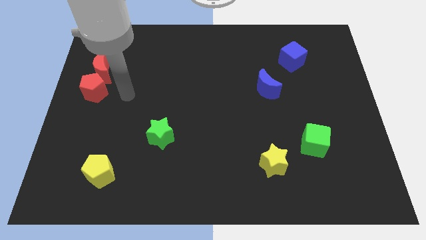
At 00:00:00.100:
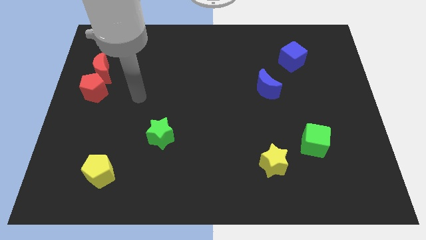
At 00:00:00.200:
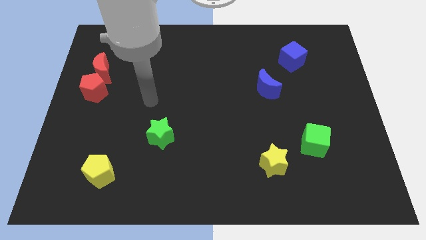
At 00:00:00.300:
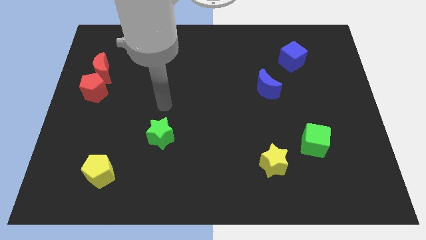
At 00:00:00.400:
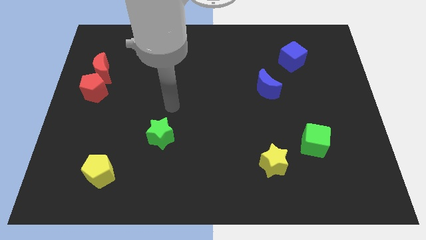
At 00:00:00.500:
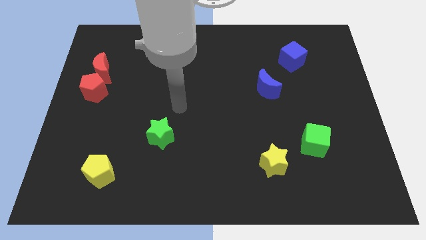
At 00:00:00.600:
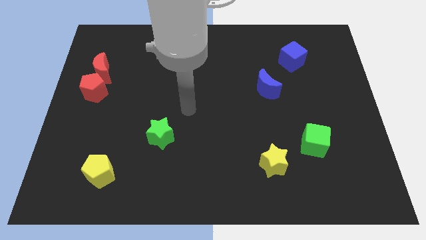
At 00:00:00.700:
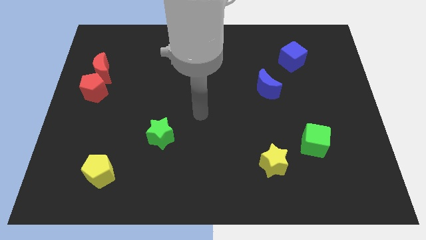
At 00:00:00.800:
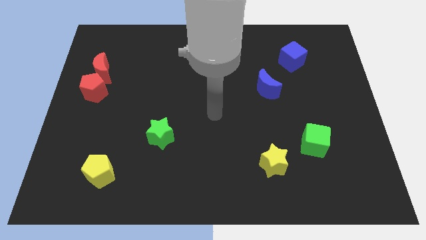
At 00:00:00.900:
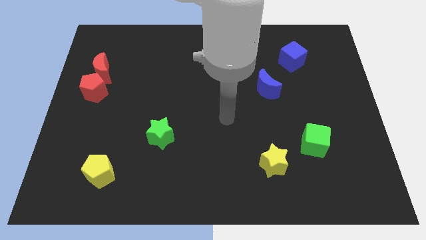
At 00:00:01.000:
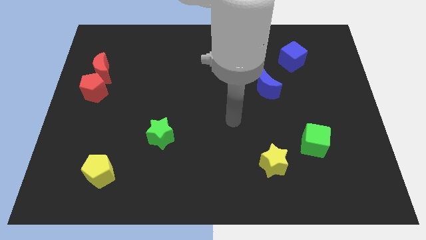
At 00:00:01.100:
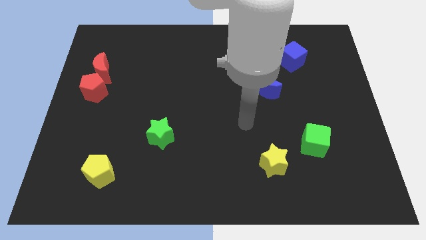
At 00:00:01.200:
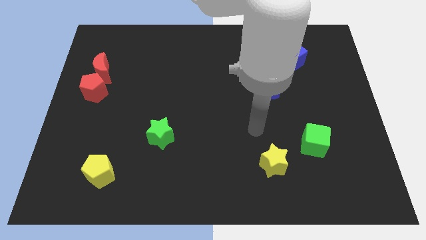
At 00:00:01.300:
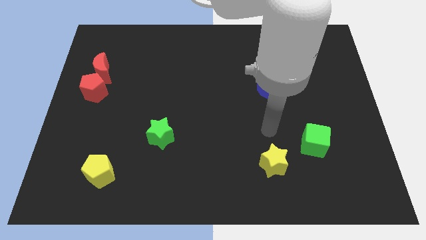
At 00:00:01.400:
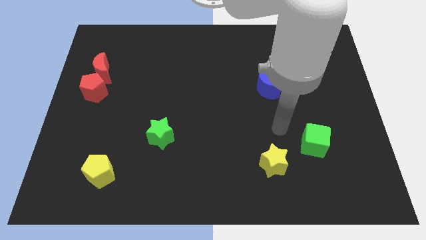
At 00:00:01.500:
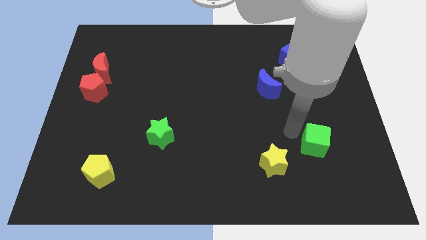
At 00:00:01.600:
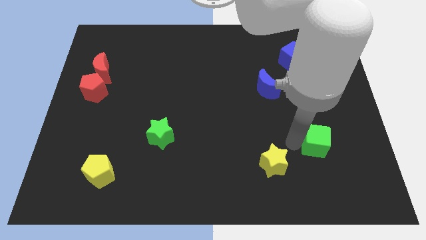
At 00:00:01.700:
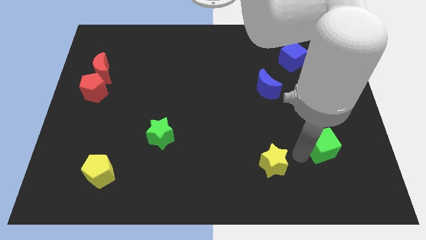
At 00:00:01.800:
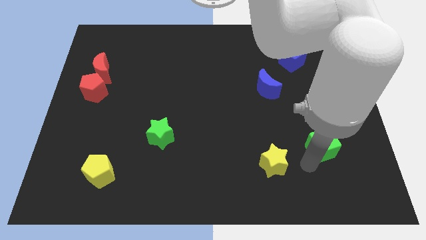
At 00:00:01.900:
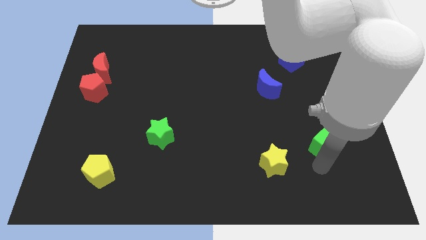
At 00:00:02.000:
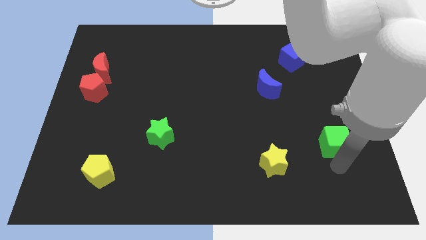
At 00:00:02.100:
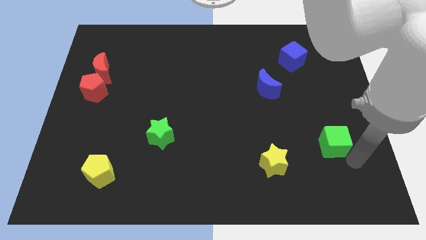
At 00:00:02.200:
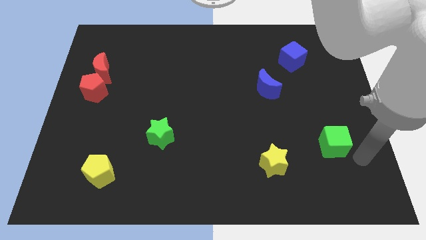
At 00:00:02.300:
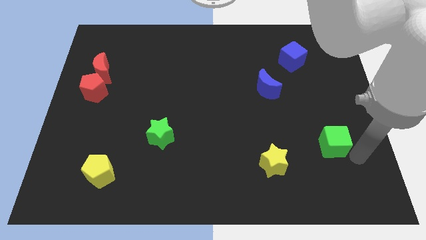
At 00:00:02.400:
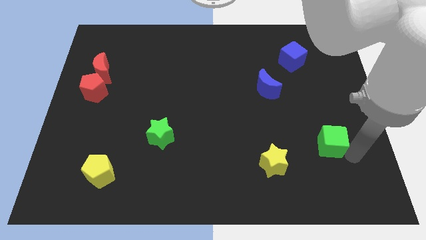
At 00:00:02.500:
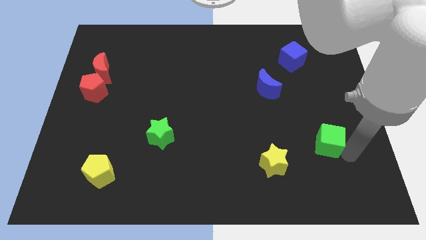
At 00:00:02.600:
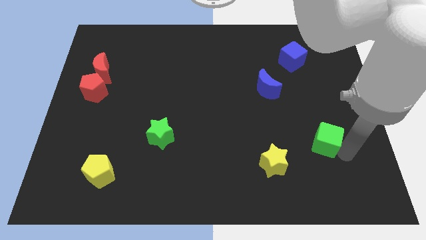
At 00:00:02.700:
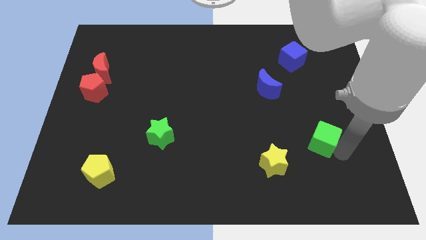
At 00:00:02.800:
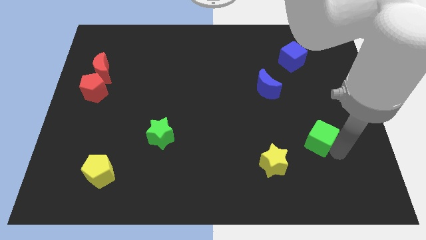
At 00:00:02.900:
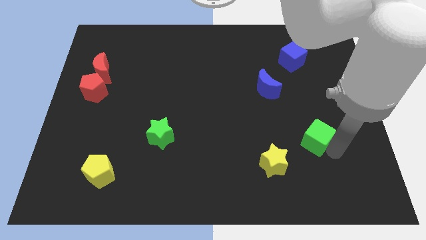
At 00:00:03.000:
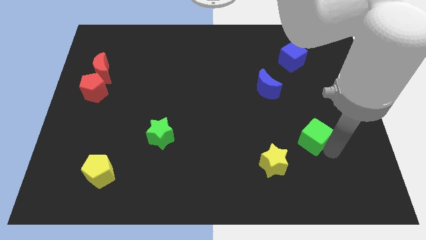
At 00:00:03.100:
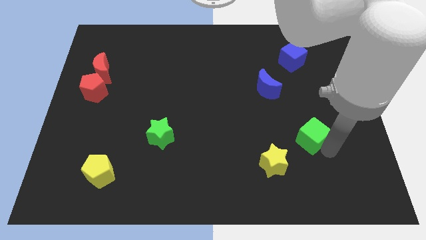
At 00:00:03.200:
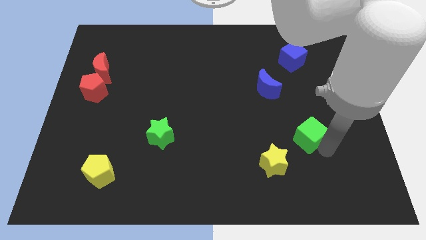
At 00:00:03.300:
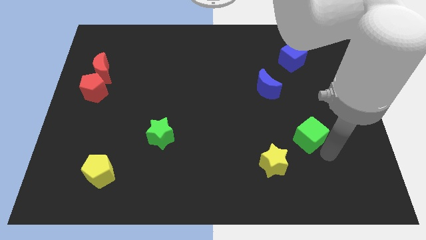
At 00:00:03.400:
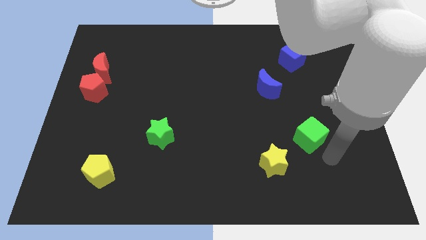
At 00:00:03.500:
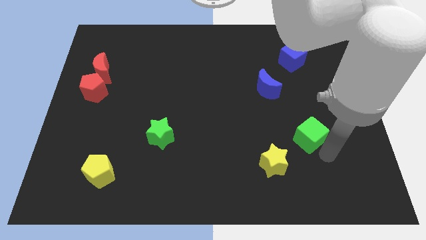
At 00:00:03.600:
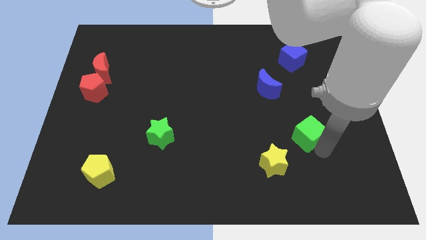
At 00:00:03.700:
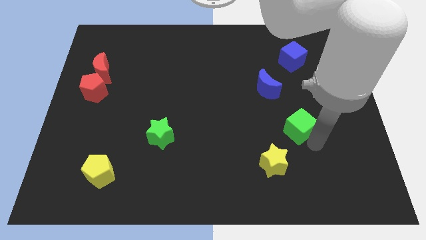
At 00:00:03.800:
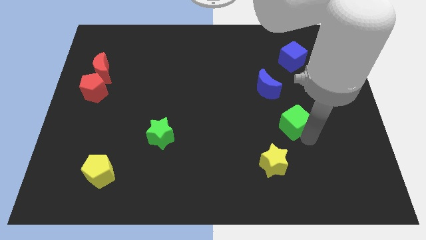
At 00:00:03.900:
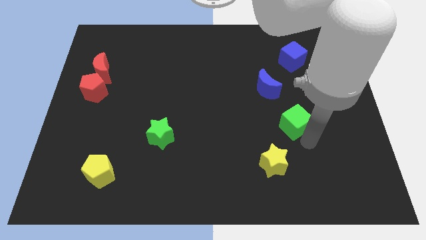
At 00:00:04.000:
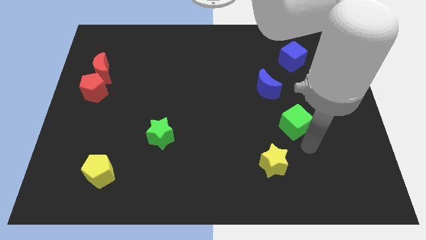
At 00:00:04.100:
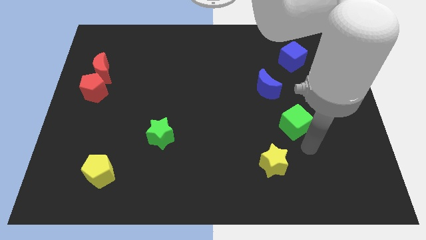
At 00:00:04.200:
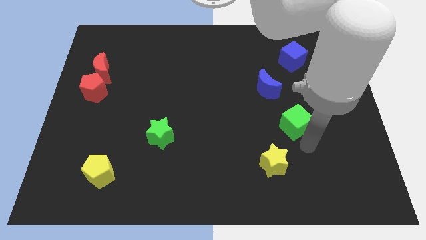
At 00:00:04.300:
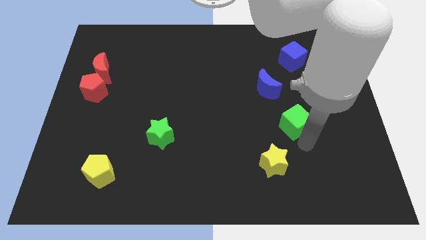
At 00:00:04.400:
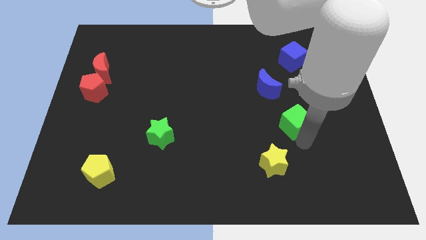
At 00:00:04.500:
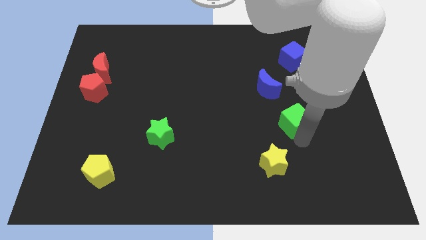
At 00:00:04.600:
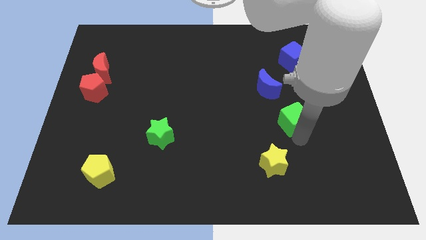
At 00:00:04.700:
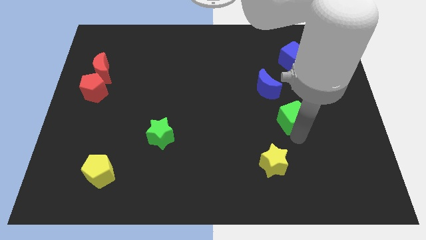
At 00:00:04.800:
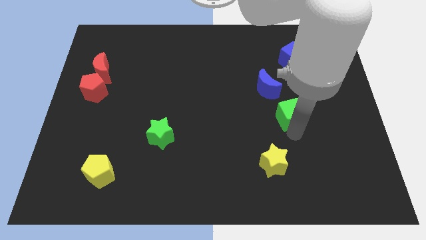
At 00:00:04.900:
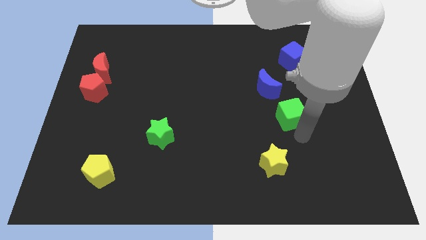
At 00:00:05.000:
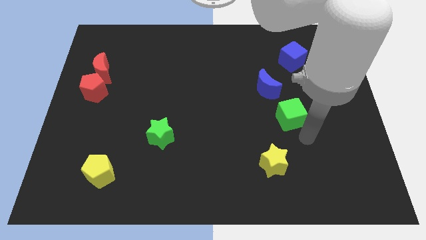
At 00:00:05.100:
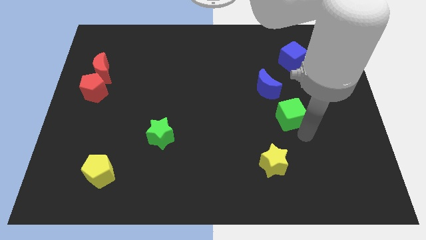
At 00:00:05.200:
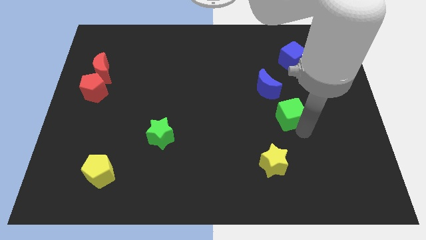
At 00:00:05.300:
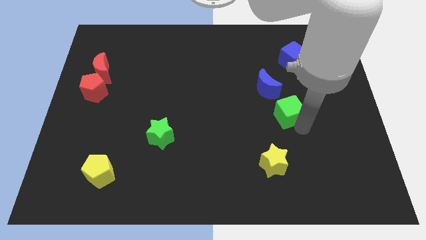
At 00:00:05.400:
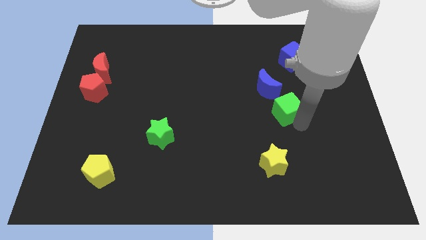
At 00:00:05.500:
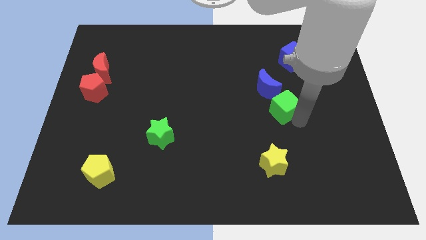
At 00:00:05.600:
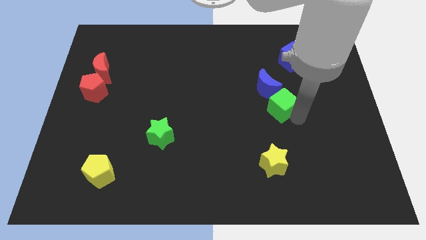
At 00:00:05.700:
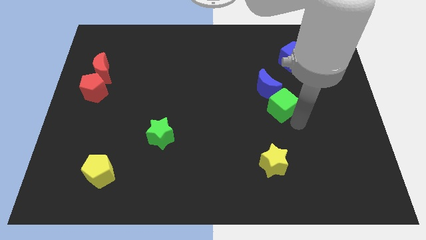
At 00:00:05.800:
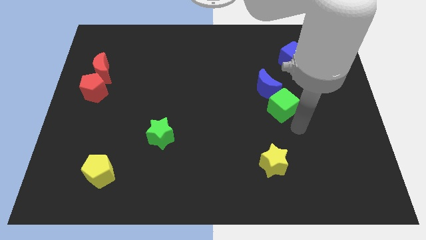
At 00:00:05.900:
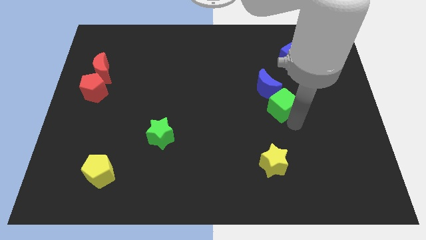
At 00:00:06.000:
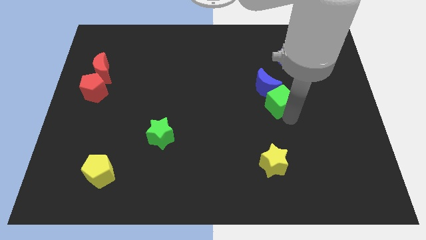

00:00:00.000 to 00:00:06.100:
move the green cube to the blue moon

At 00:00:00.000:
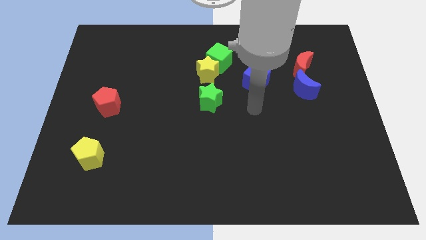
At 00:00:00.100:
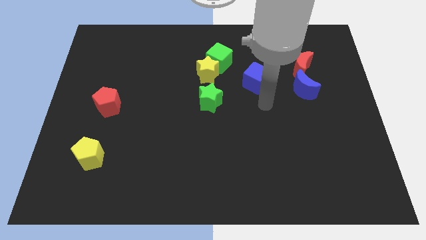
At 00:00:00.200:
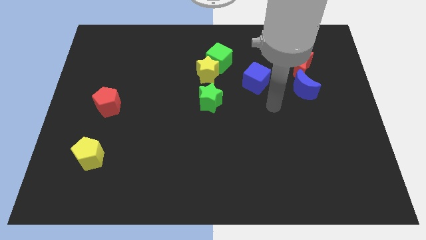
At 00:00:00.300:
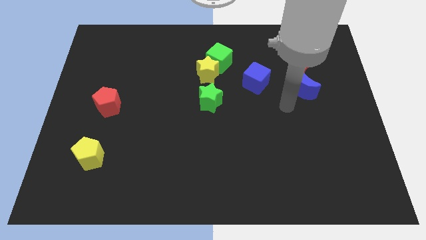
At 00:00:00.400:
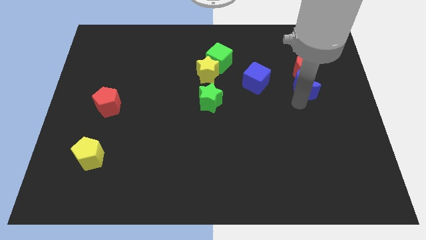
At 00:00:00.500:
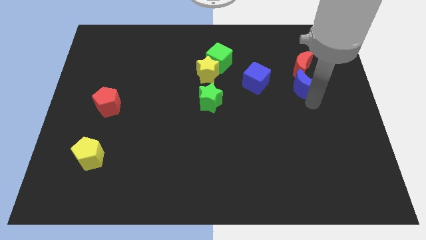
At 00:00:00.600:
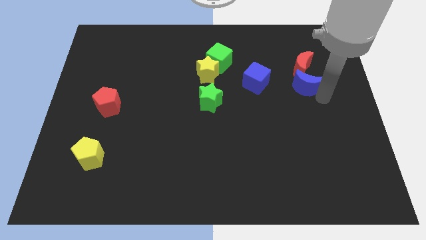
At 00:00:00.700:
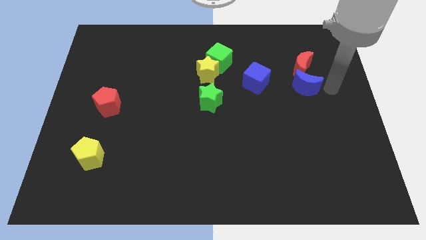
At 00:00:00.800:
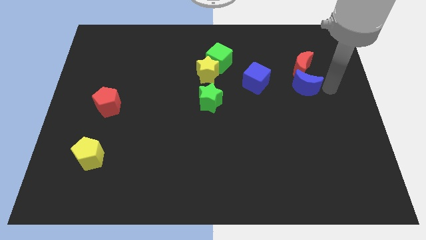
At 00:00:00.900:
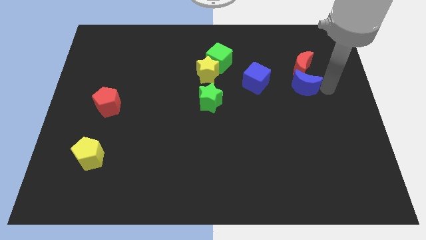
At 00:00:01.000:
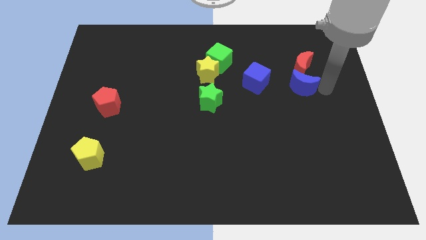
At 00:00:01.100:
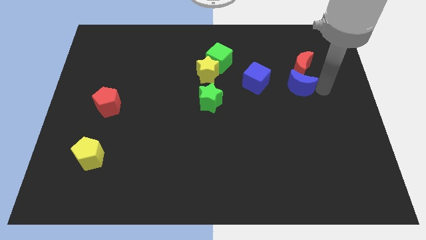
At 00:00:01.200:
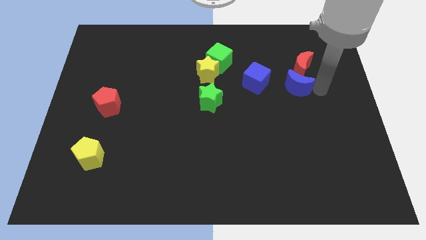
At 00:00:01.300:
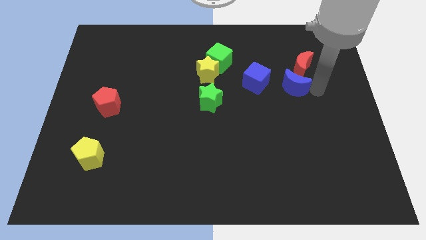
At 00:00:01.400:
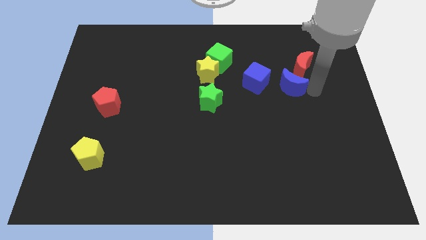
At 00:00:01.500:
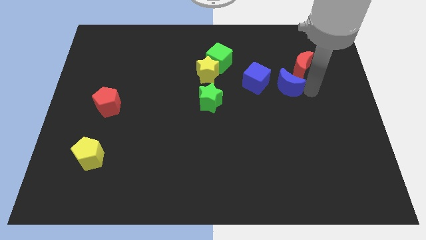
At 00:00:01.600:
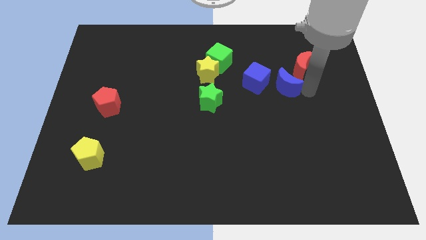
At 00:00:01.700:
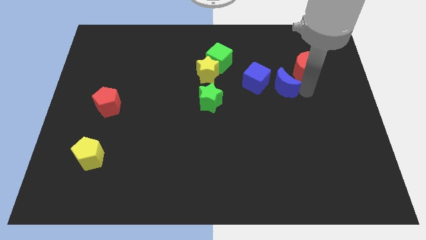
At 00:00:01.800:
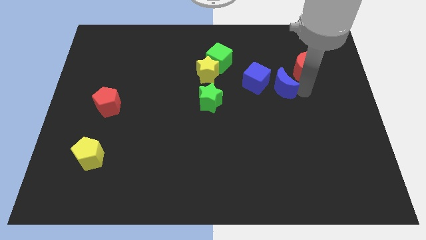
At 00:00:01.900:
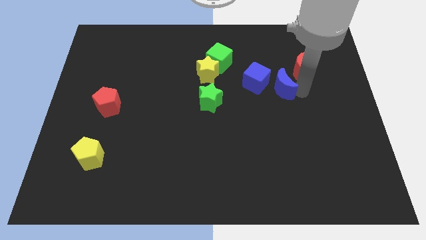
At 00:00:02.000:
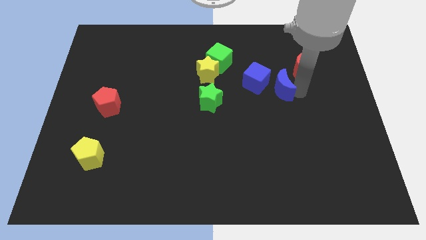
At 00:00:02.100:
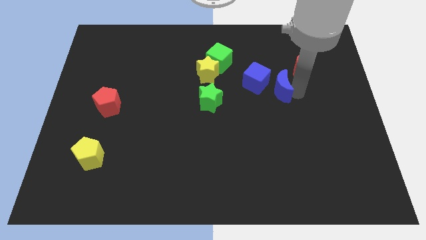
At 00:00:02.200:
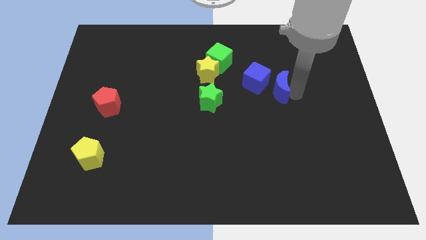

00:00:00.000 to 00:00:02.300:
move the blue moon to the blue cube
